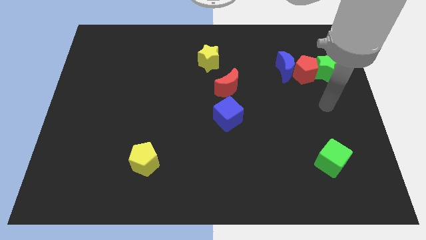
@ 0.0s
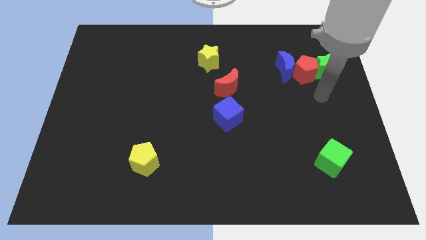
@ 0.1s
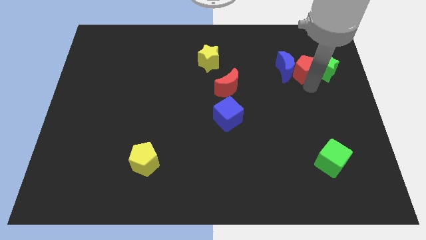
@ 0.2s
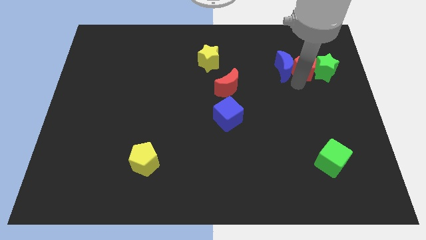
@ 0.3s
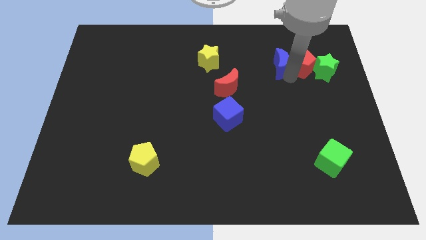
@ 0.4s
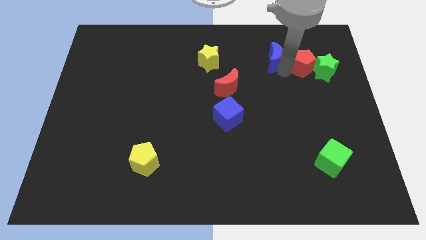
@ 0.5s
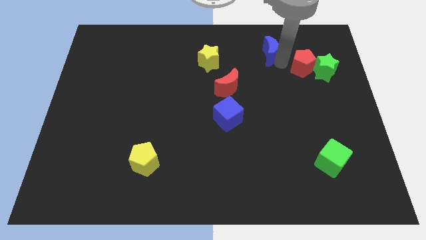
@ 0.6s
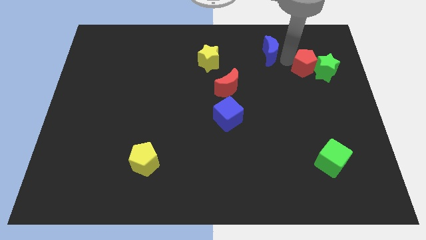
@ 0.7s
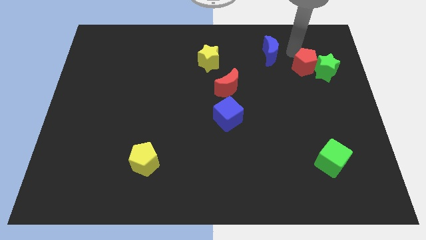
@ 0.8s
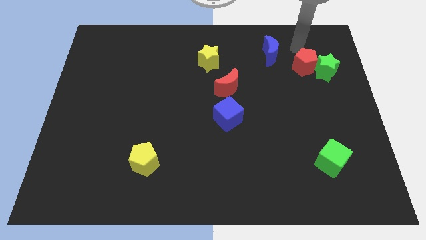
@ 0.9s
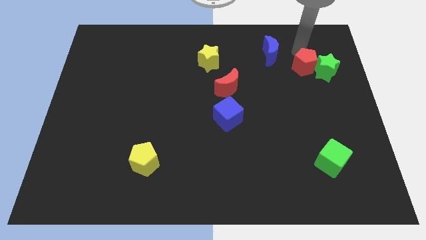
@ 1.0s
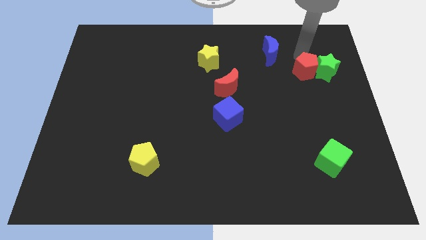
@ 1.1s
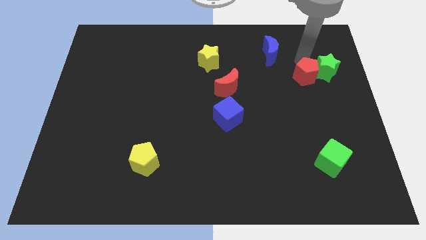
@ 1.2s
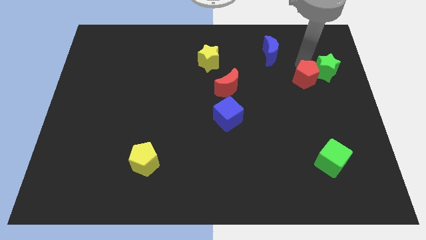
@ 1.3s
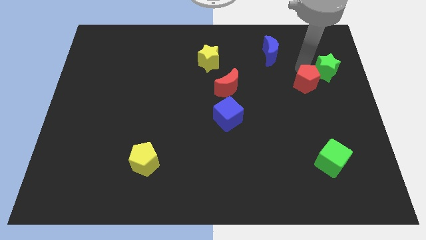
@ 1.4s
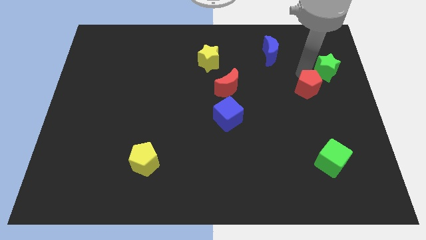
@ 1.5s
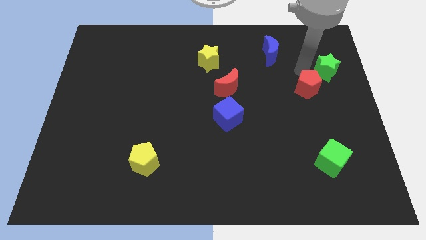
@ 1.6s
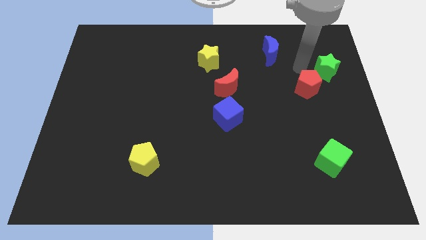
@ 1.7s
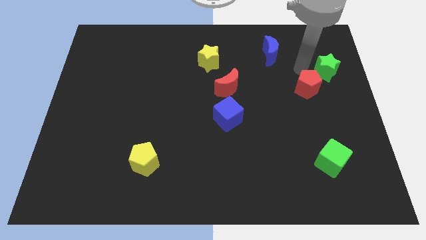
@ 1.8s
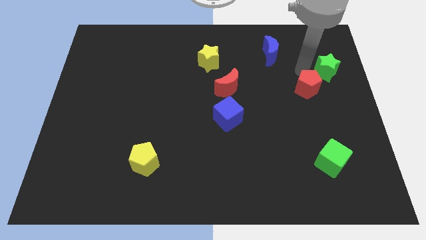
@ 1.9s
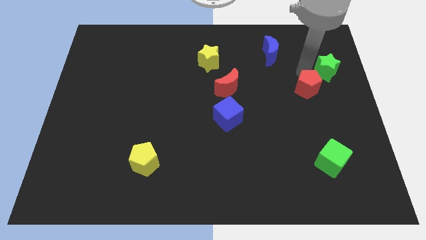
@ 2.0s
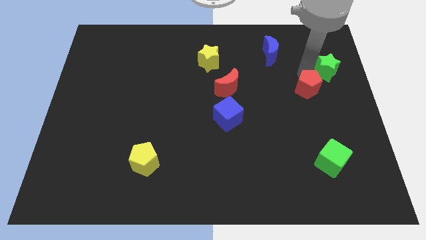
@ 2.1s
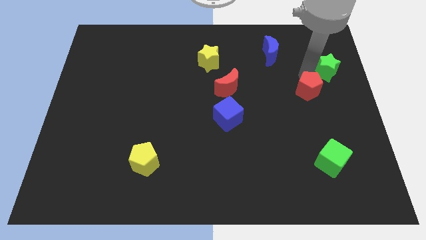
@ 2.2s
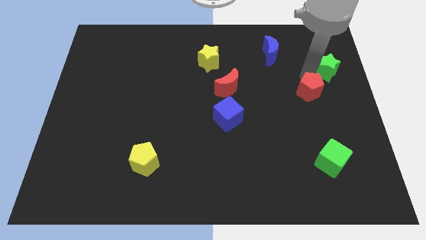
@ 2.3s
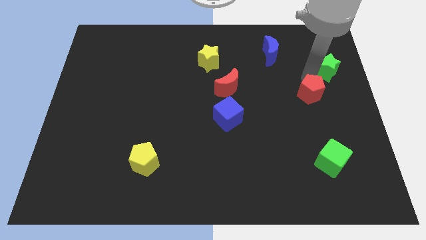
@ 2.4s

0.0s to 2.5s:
separate the red pentagon from the blue moon and green star

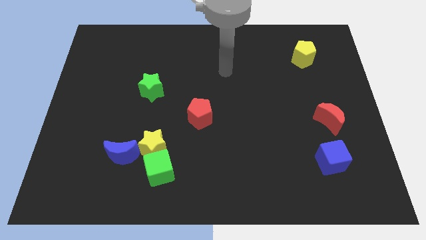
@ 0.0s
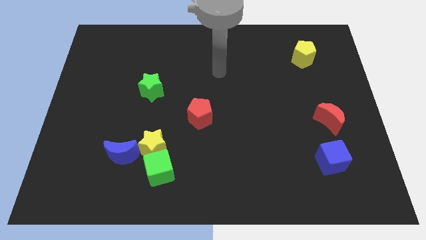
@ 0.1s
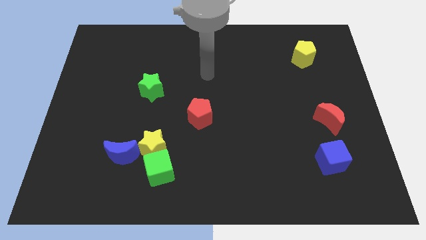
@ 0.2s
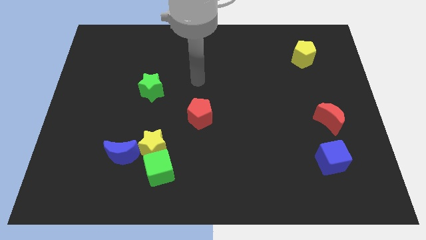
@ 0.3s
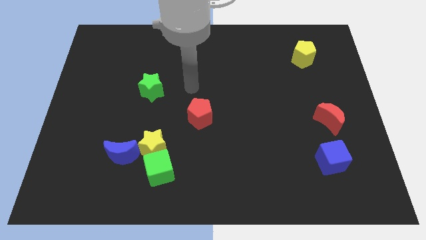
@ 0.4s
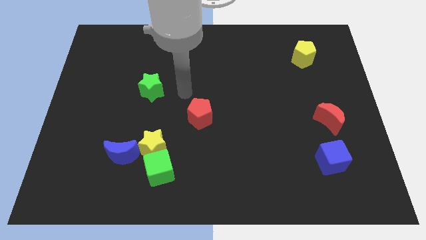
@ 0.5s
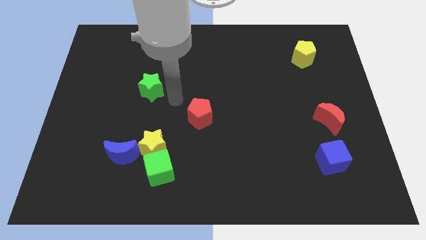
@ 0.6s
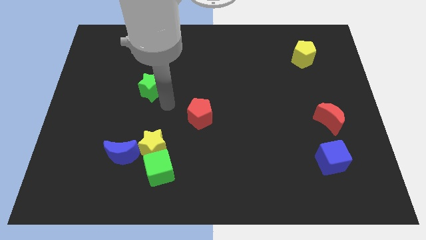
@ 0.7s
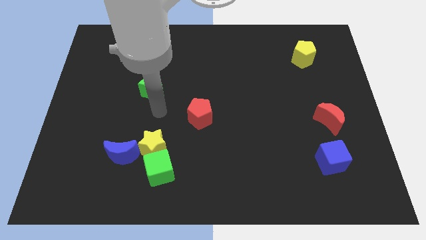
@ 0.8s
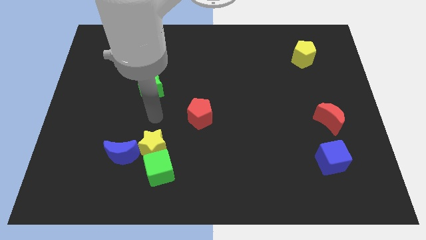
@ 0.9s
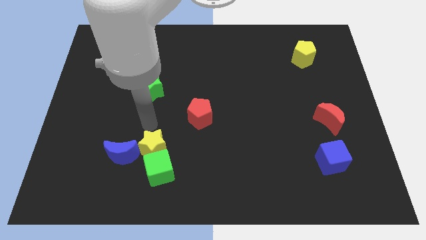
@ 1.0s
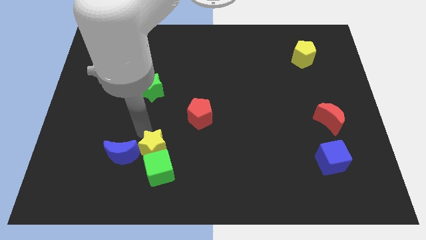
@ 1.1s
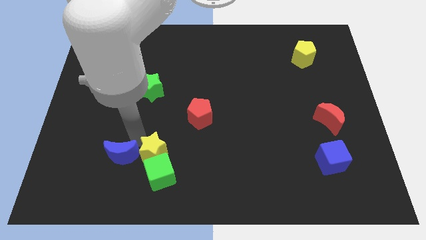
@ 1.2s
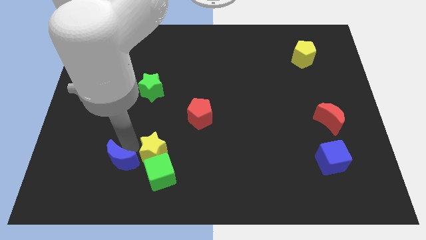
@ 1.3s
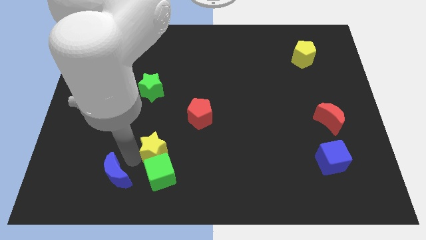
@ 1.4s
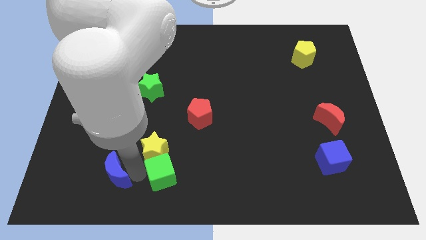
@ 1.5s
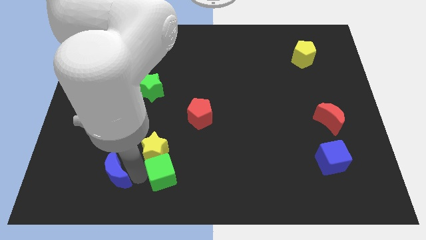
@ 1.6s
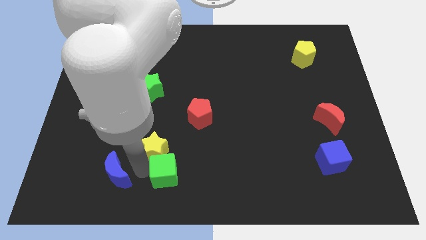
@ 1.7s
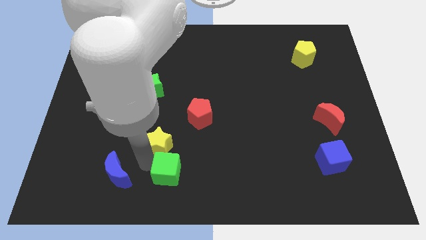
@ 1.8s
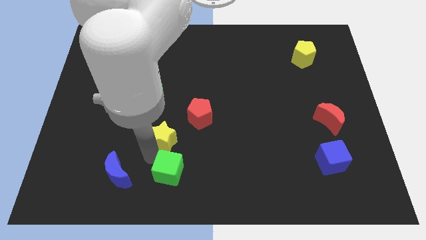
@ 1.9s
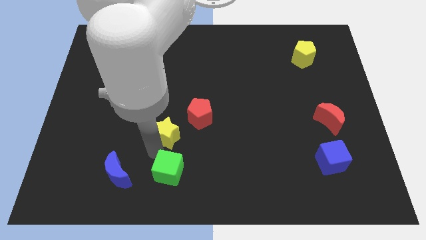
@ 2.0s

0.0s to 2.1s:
pull the yellow star apart from the green cube and blue moon

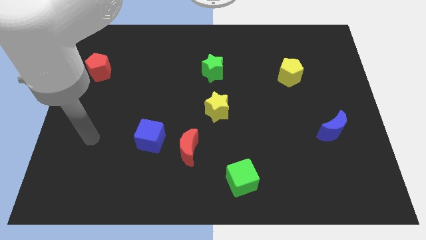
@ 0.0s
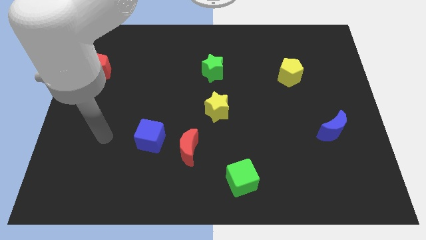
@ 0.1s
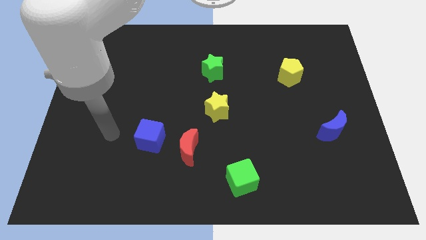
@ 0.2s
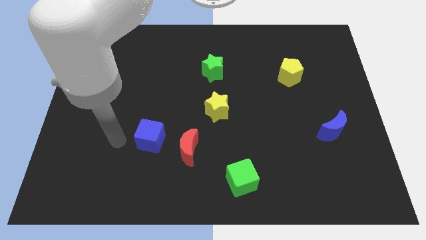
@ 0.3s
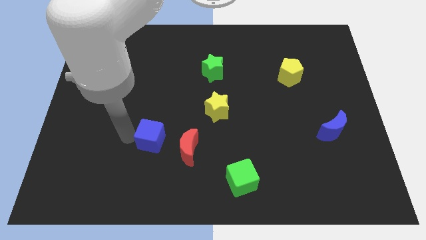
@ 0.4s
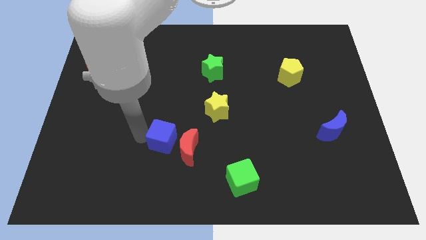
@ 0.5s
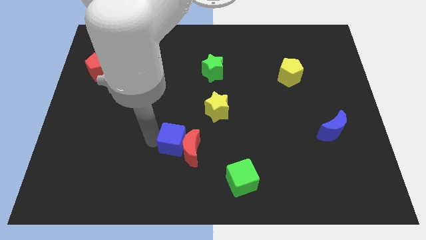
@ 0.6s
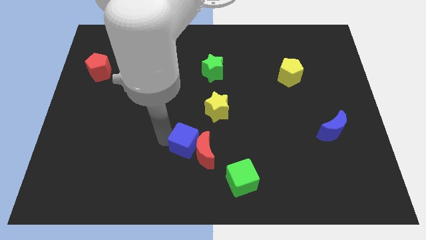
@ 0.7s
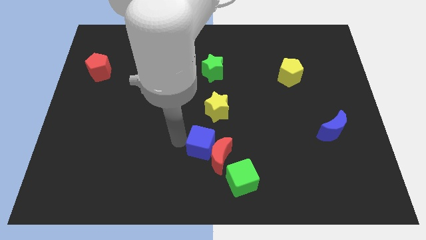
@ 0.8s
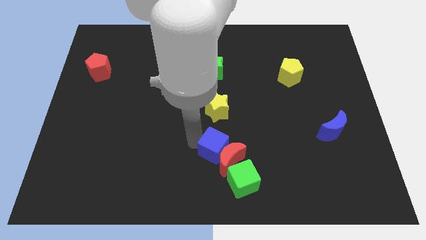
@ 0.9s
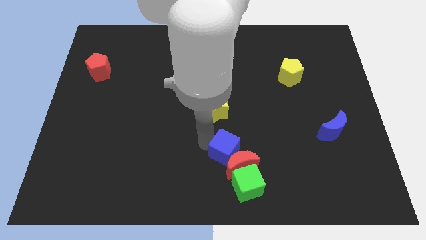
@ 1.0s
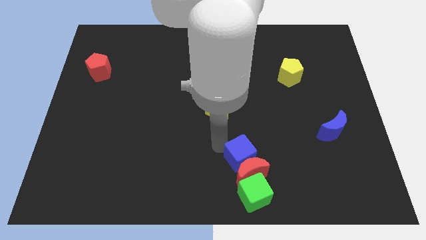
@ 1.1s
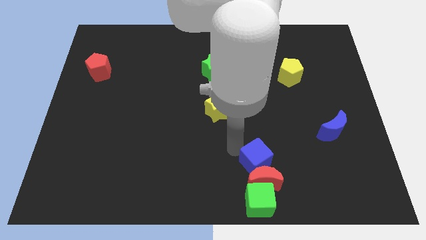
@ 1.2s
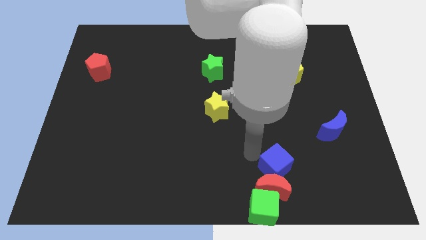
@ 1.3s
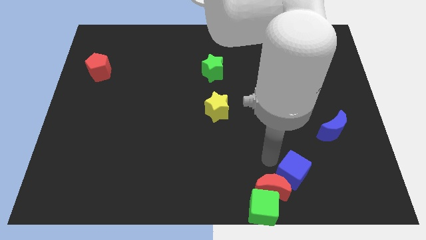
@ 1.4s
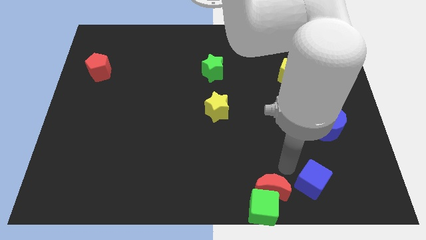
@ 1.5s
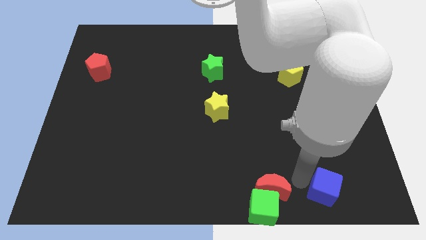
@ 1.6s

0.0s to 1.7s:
separate the red moon from the blue cube

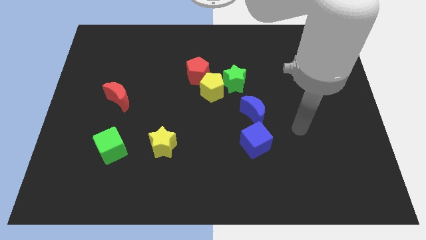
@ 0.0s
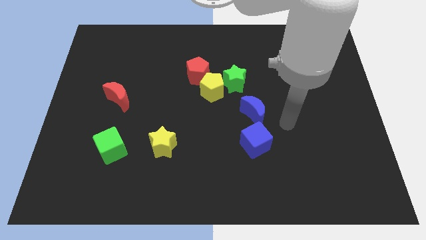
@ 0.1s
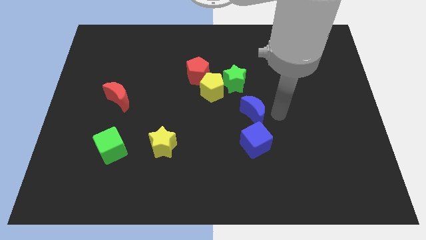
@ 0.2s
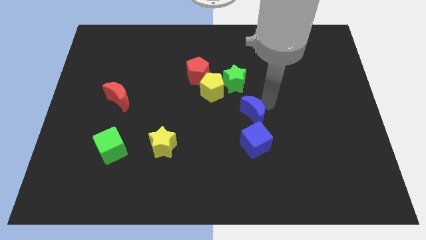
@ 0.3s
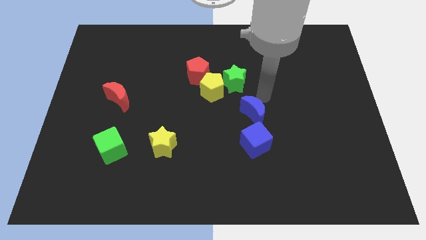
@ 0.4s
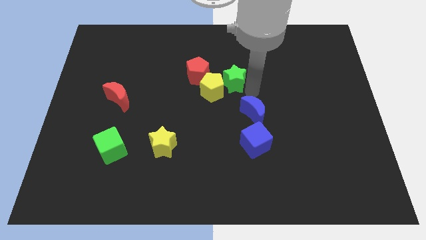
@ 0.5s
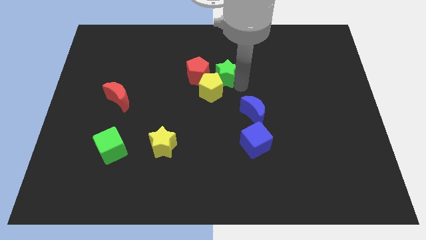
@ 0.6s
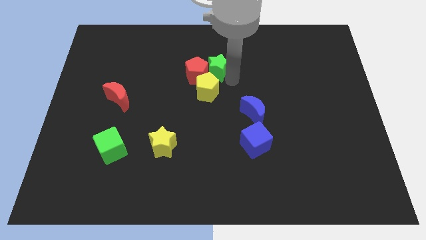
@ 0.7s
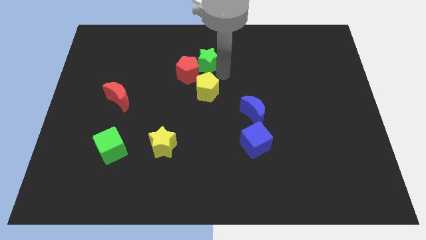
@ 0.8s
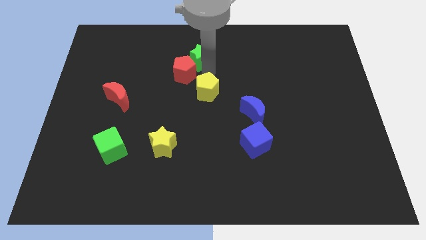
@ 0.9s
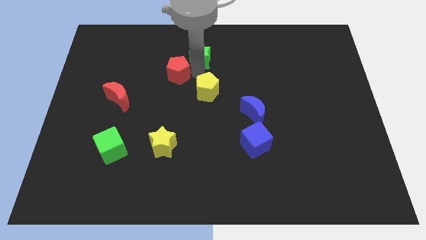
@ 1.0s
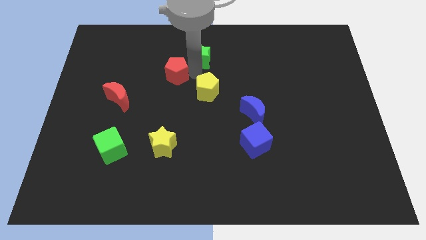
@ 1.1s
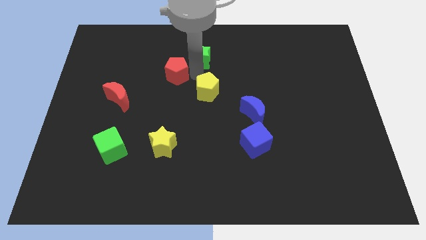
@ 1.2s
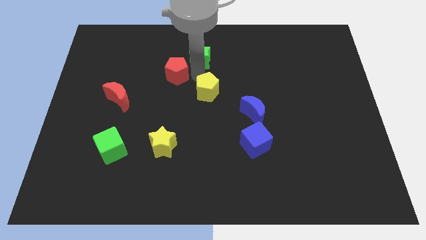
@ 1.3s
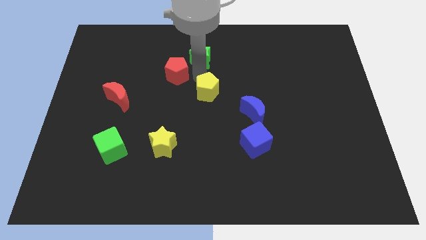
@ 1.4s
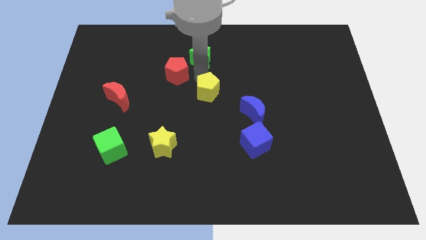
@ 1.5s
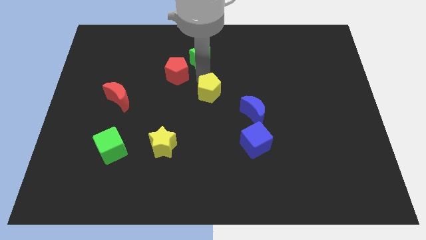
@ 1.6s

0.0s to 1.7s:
pull the yellow pentagon apart from the green star and red pentagon

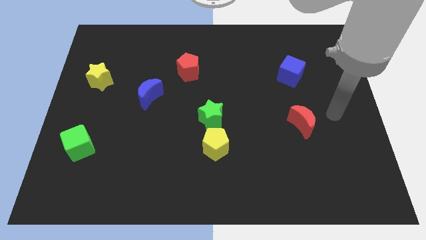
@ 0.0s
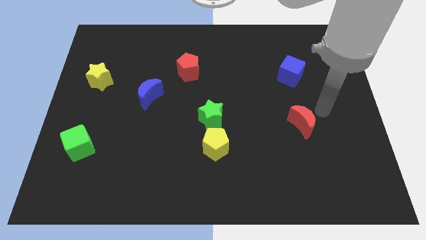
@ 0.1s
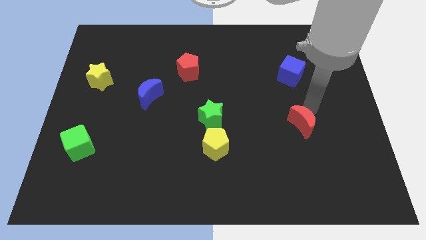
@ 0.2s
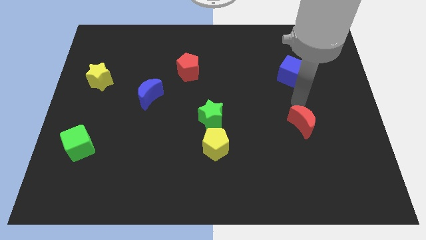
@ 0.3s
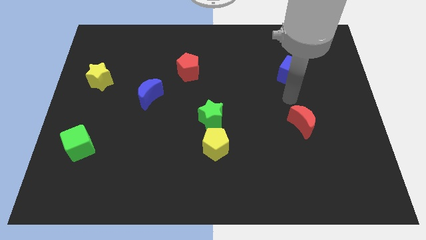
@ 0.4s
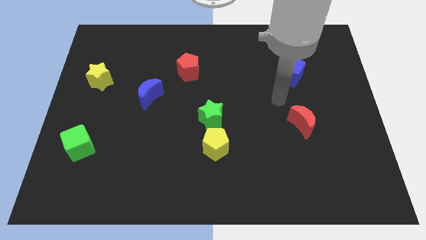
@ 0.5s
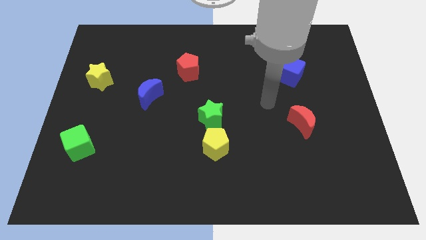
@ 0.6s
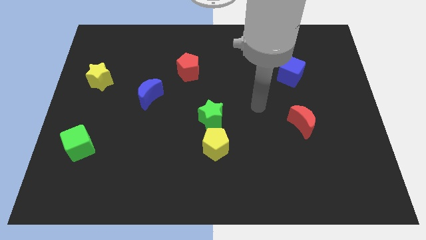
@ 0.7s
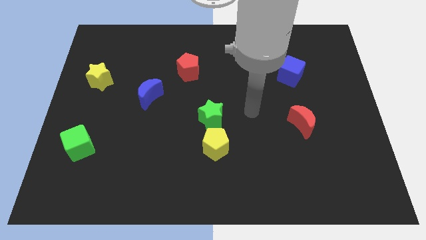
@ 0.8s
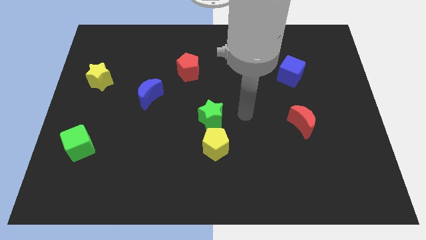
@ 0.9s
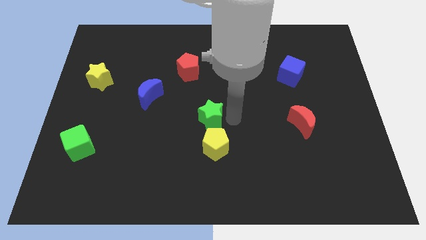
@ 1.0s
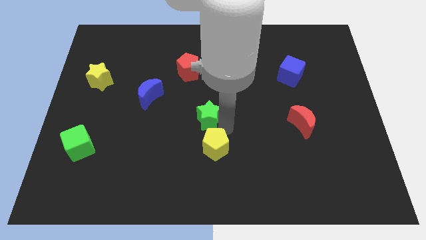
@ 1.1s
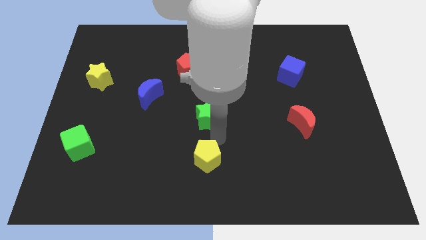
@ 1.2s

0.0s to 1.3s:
pull the green star apart from the yellow pentagon
